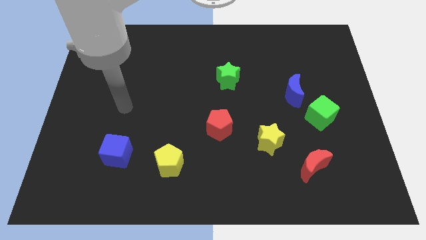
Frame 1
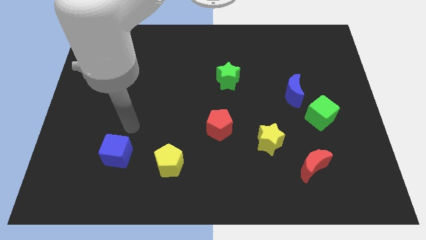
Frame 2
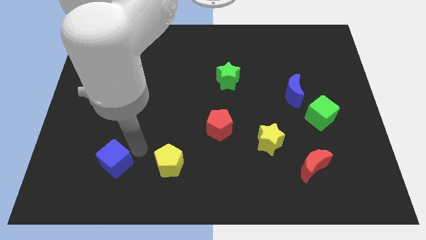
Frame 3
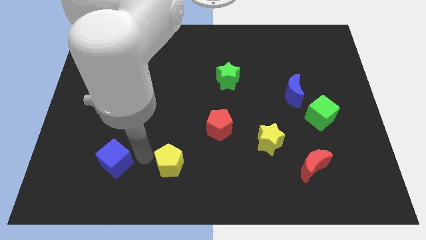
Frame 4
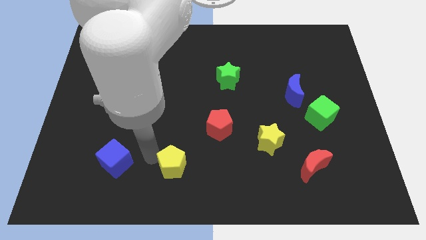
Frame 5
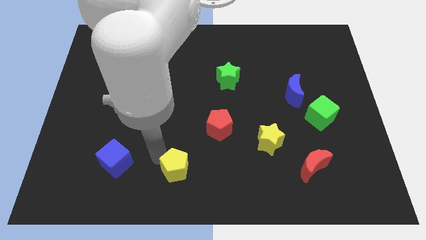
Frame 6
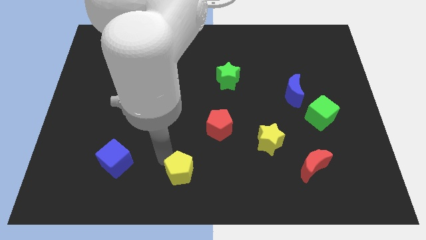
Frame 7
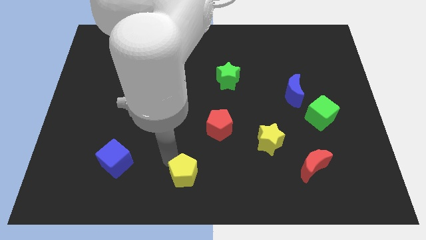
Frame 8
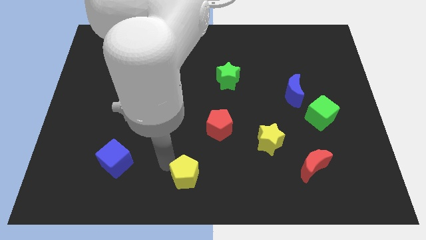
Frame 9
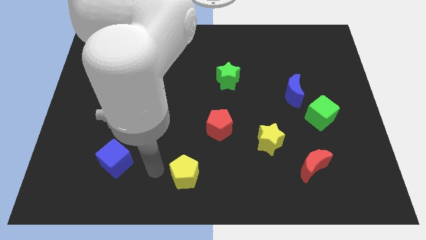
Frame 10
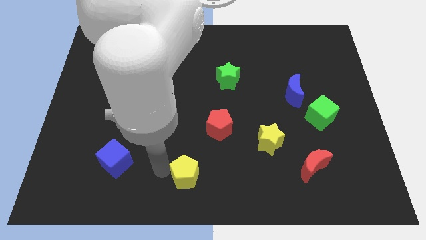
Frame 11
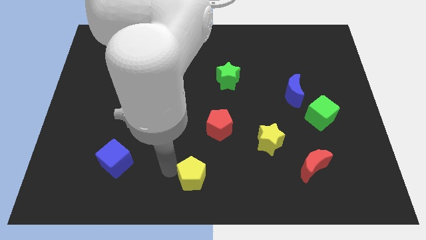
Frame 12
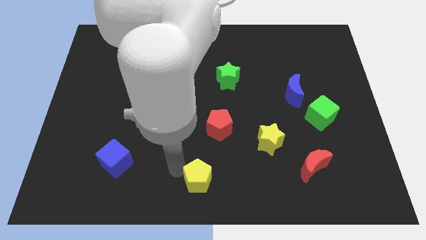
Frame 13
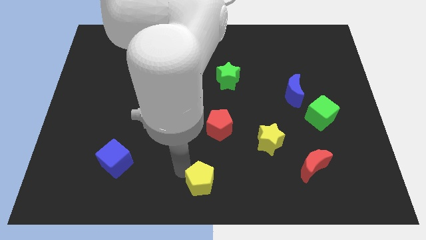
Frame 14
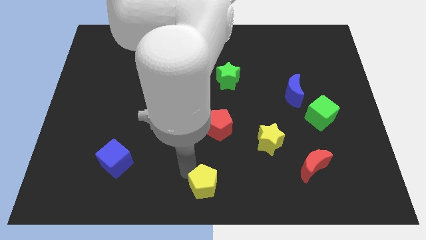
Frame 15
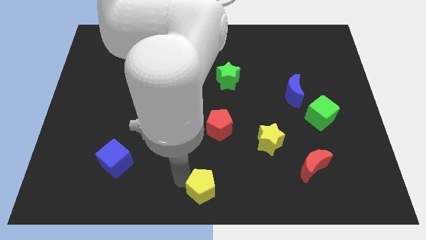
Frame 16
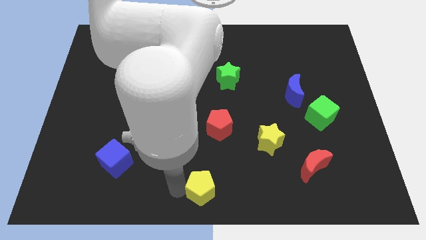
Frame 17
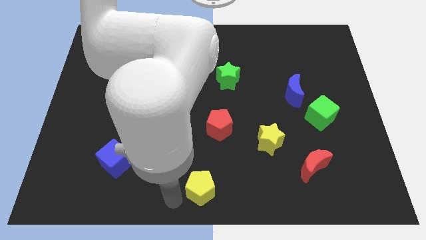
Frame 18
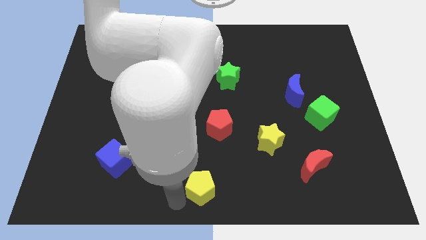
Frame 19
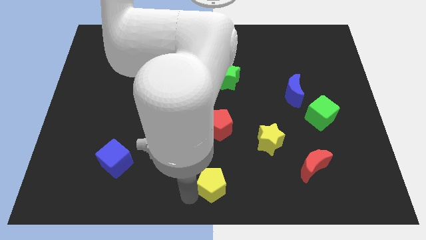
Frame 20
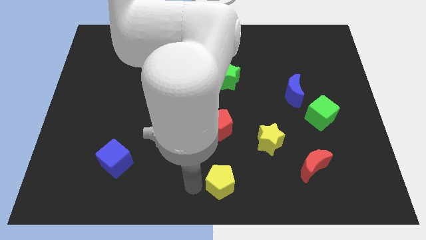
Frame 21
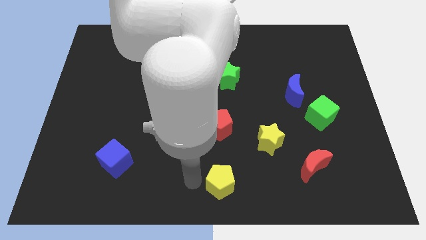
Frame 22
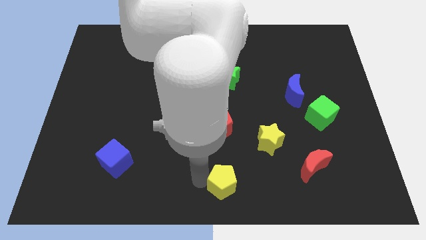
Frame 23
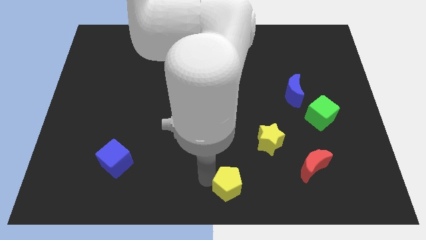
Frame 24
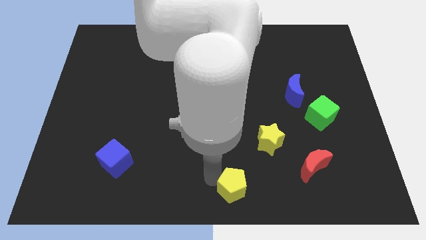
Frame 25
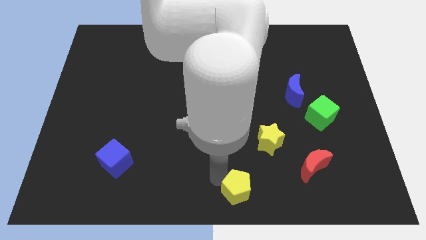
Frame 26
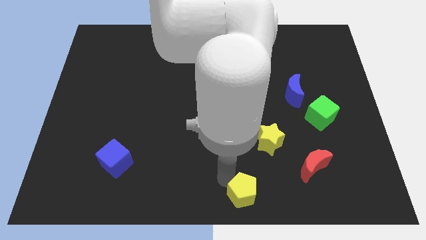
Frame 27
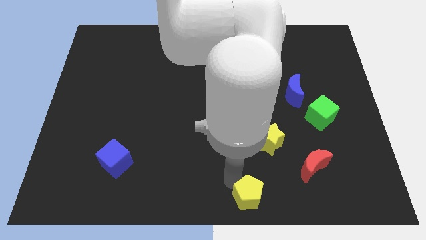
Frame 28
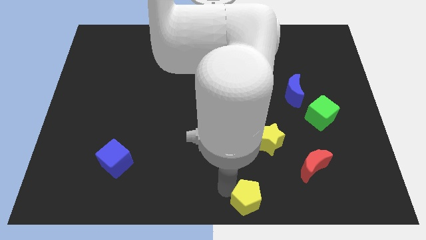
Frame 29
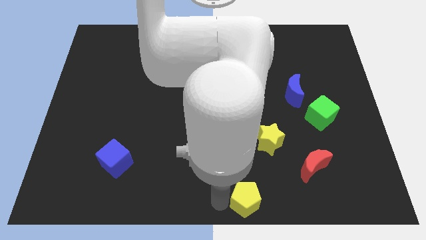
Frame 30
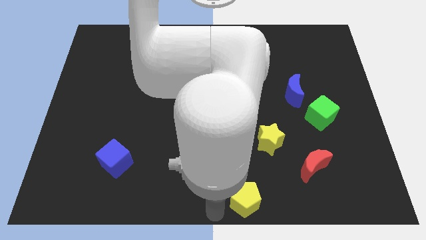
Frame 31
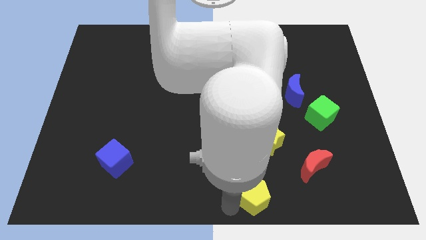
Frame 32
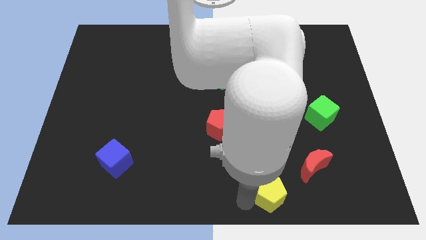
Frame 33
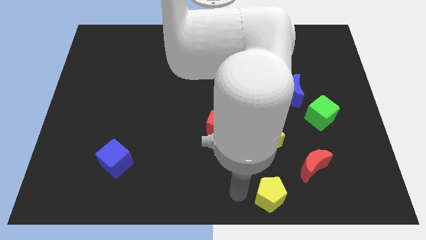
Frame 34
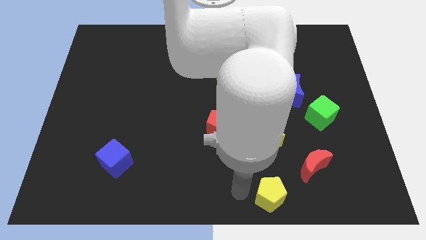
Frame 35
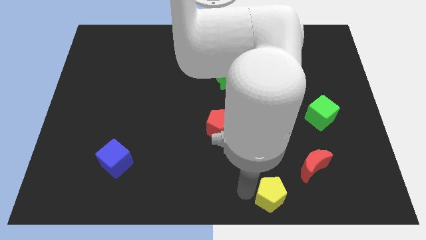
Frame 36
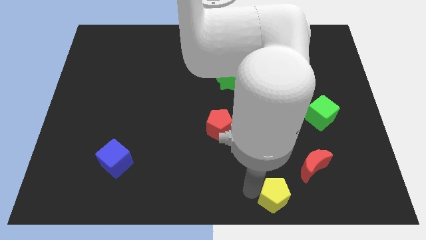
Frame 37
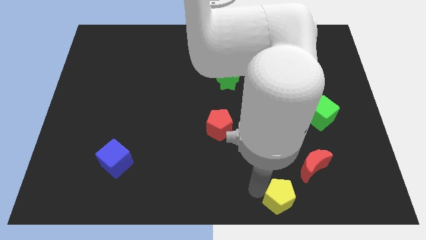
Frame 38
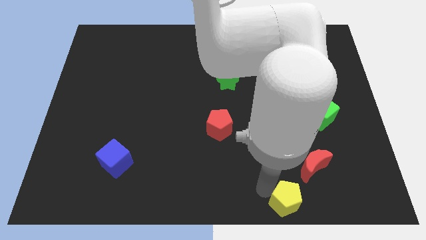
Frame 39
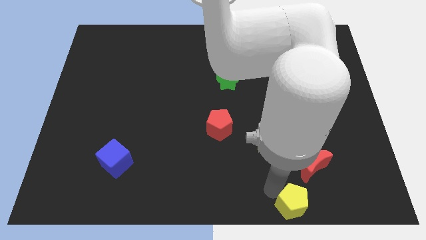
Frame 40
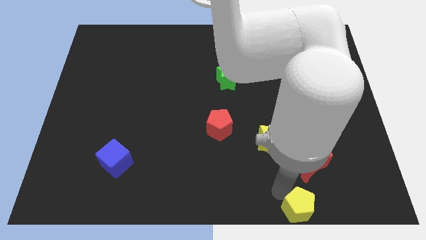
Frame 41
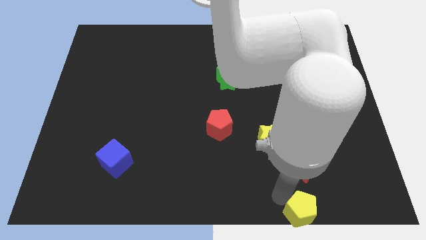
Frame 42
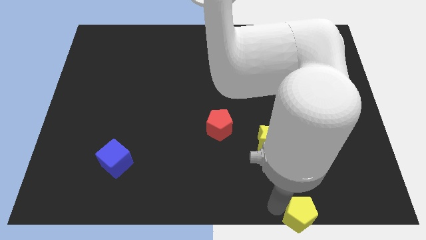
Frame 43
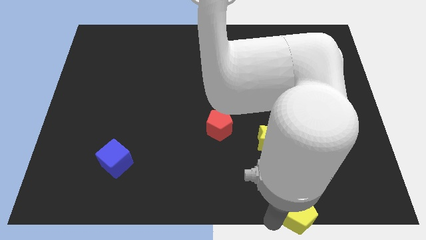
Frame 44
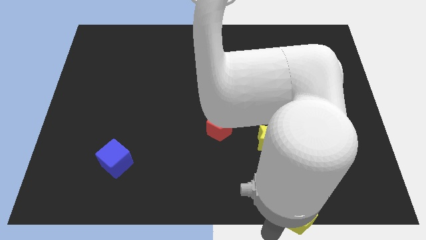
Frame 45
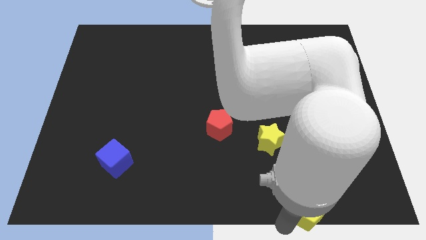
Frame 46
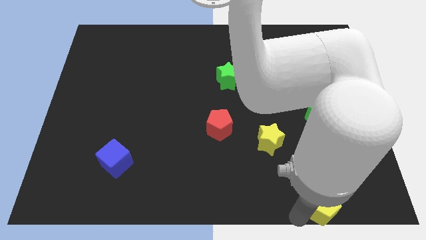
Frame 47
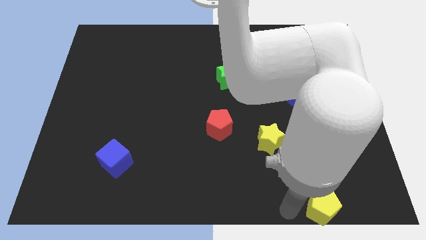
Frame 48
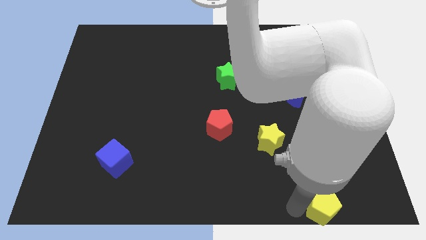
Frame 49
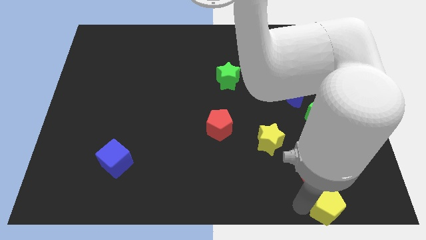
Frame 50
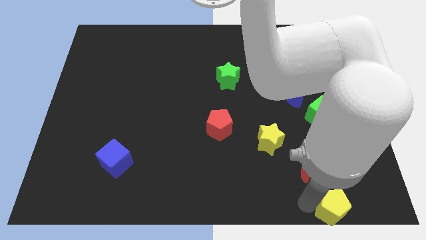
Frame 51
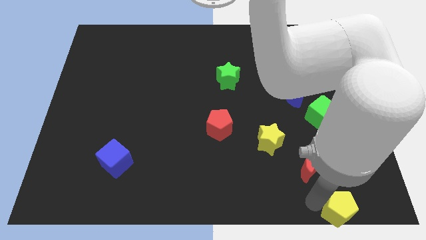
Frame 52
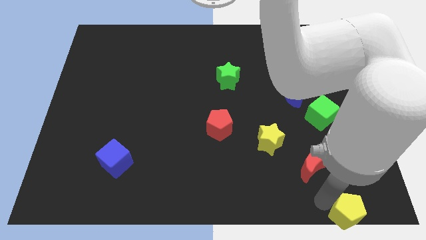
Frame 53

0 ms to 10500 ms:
push the yellow pentagon to the bottom right

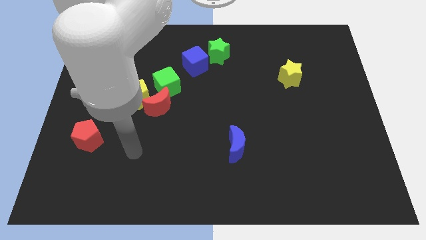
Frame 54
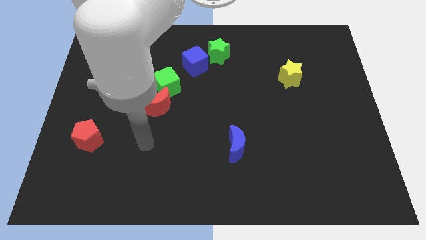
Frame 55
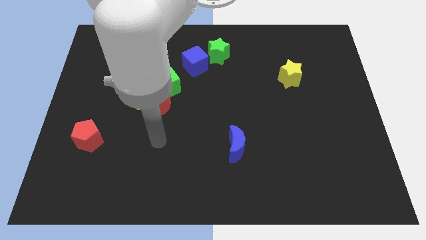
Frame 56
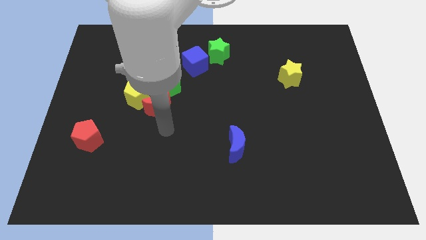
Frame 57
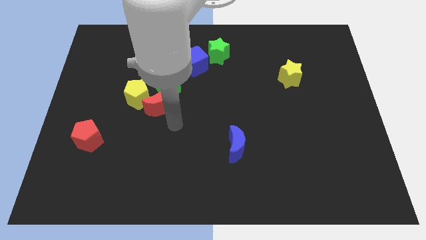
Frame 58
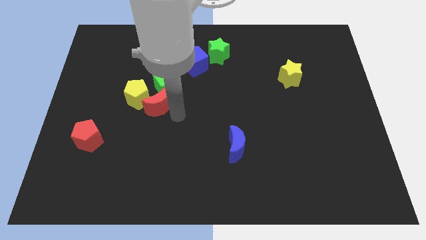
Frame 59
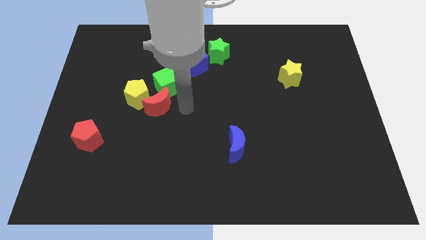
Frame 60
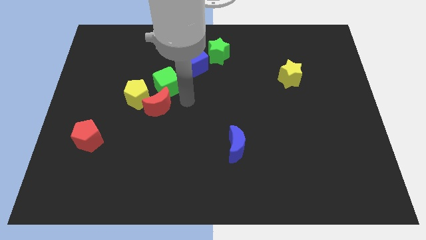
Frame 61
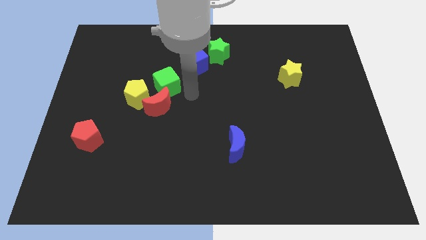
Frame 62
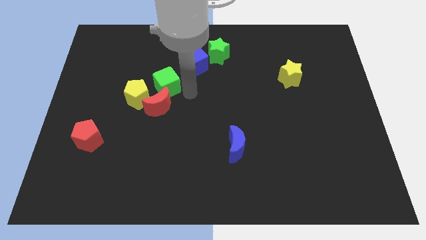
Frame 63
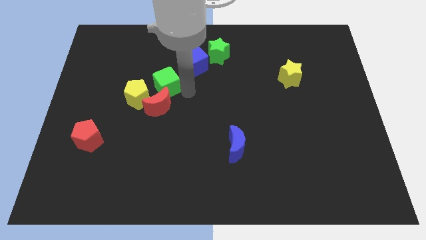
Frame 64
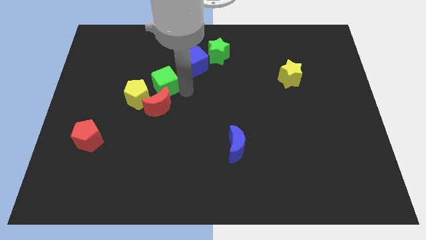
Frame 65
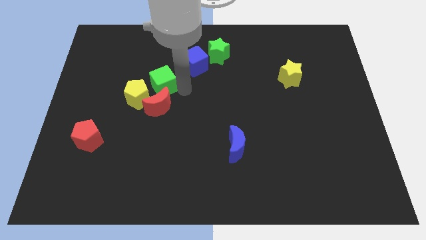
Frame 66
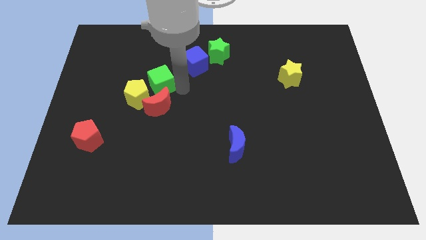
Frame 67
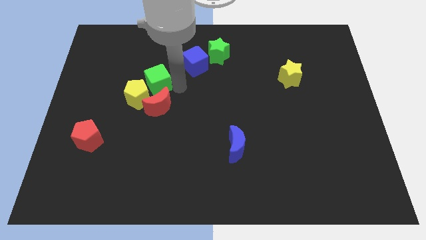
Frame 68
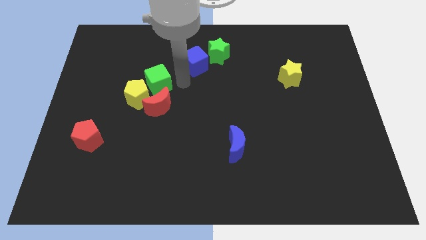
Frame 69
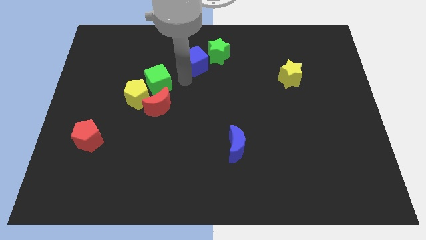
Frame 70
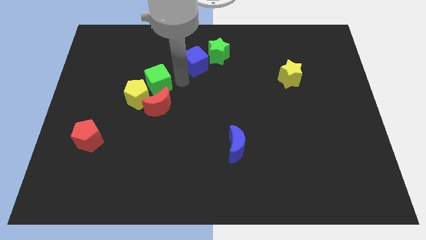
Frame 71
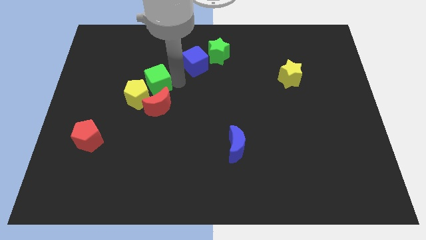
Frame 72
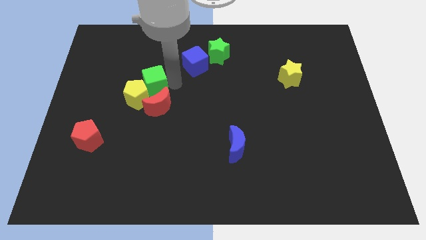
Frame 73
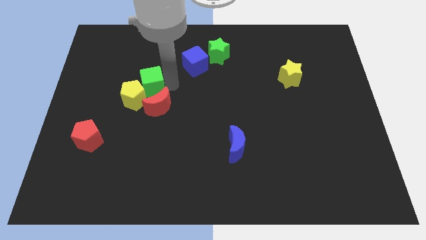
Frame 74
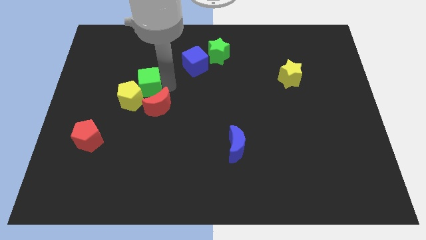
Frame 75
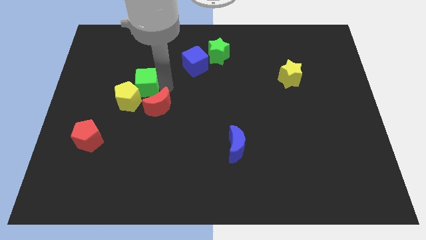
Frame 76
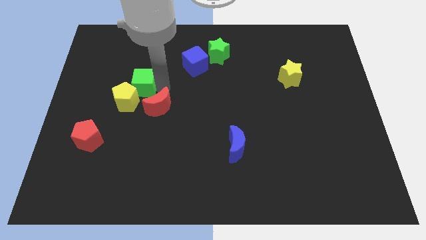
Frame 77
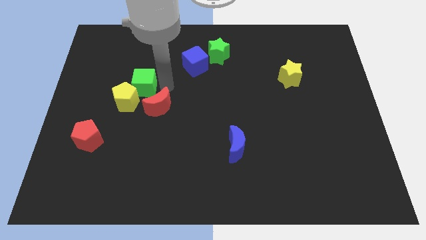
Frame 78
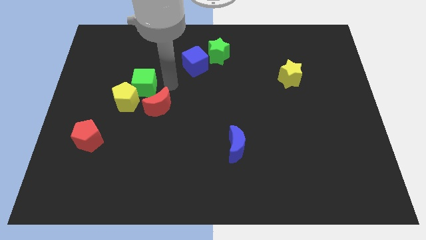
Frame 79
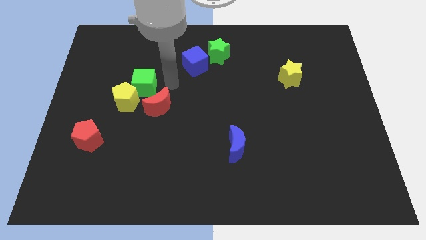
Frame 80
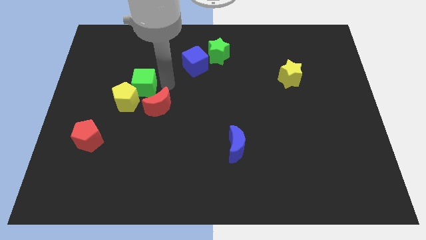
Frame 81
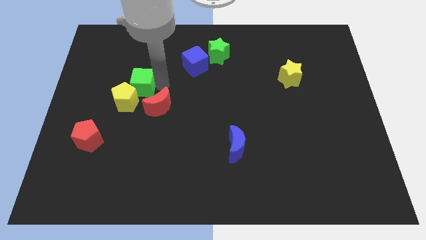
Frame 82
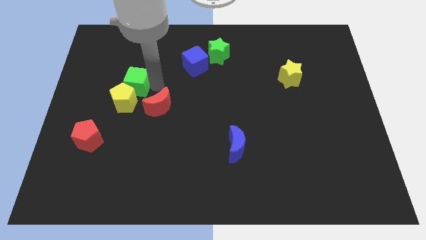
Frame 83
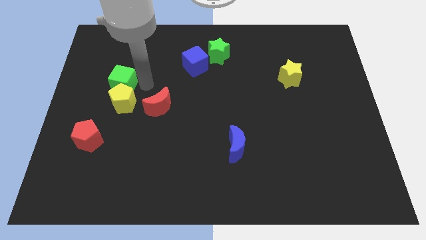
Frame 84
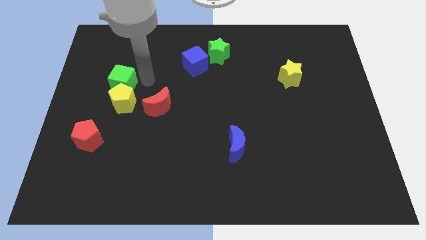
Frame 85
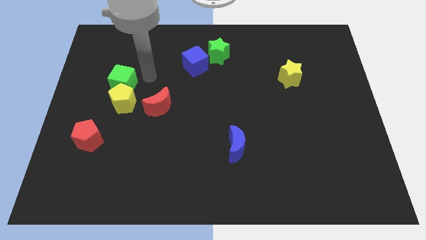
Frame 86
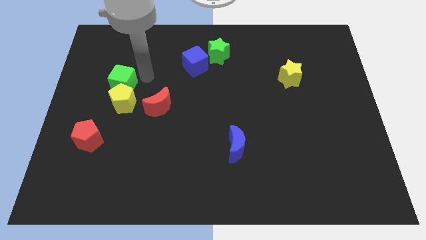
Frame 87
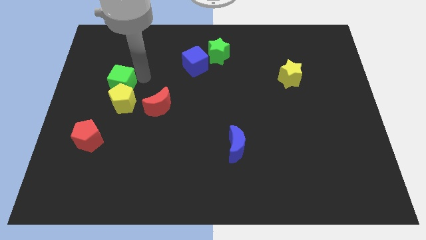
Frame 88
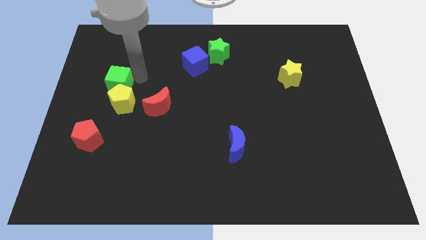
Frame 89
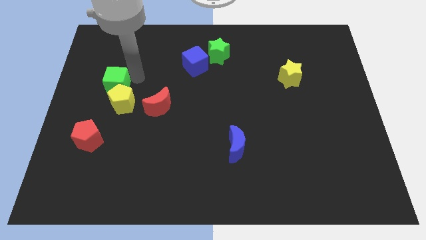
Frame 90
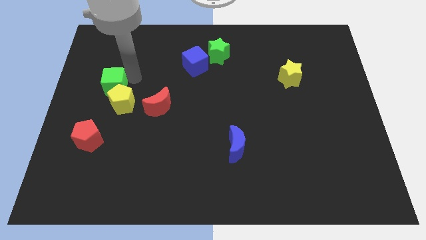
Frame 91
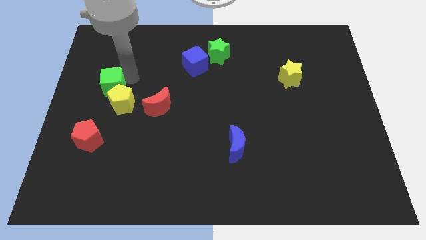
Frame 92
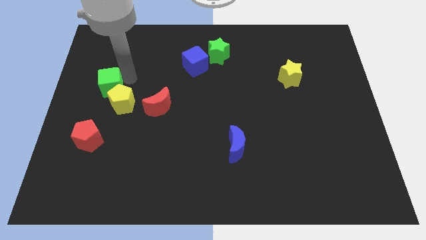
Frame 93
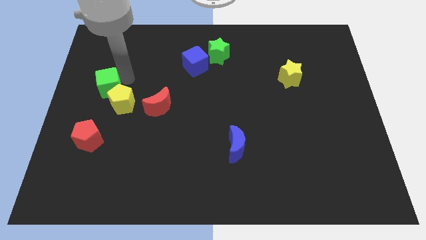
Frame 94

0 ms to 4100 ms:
put the green cube to the center left
